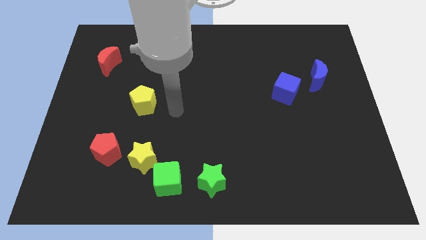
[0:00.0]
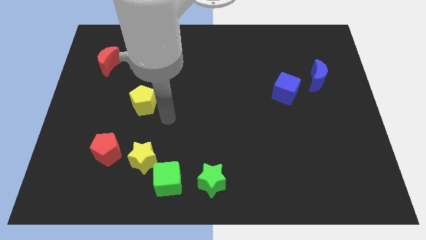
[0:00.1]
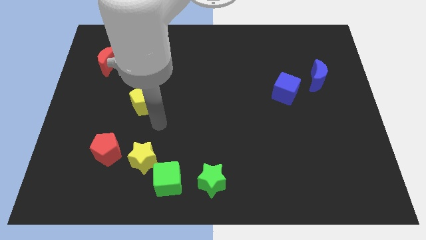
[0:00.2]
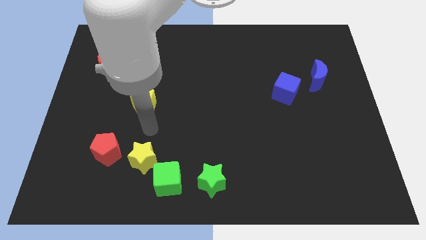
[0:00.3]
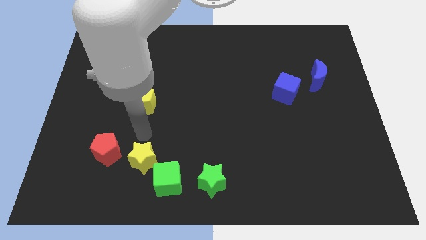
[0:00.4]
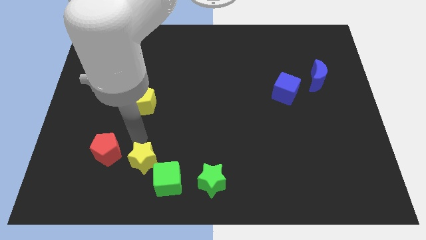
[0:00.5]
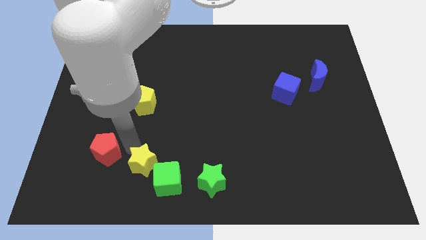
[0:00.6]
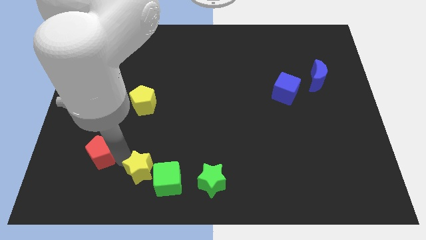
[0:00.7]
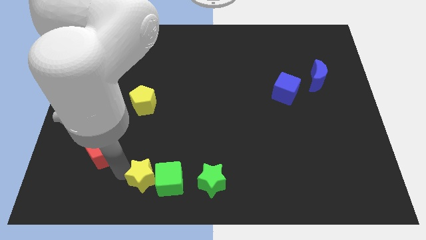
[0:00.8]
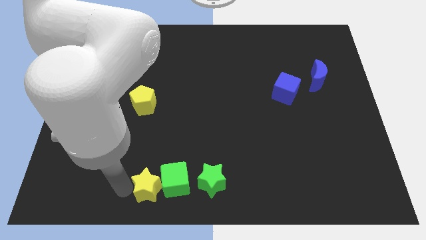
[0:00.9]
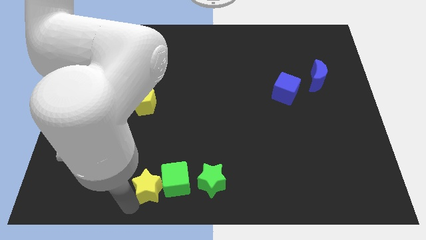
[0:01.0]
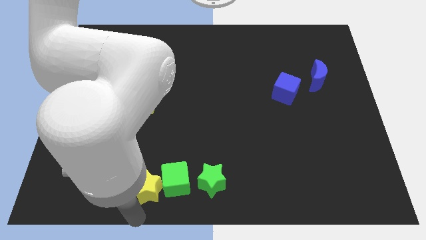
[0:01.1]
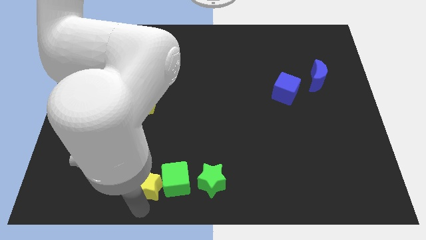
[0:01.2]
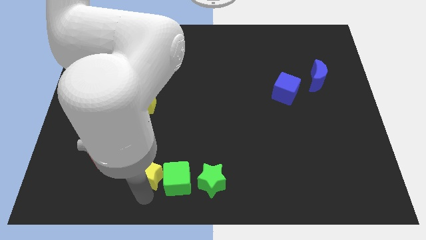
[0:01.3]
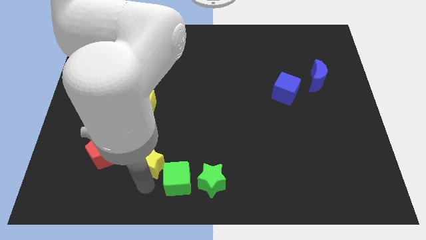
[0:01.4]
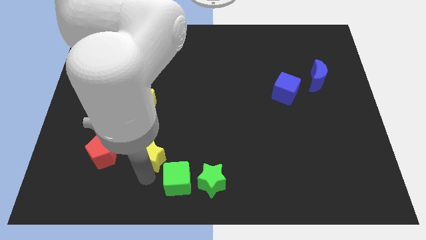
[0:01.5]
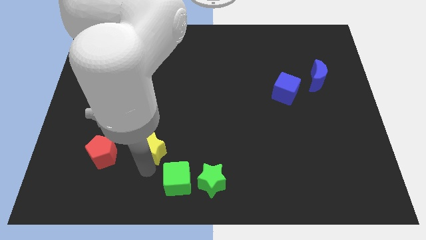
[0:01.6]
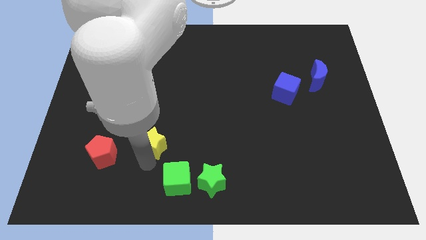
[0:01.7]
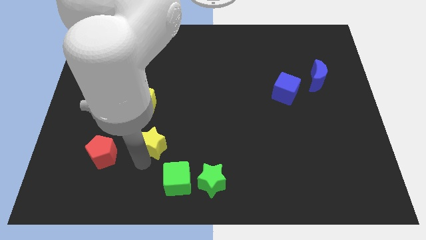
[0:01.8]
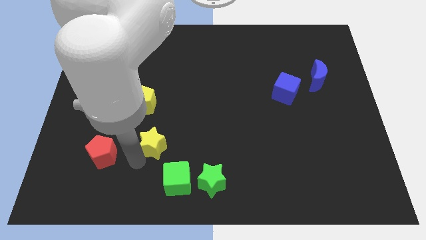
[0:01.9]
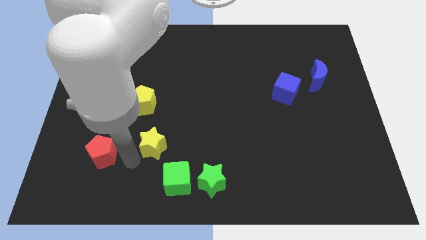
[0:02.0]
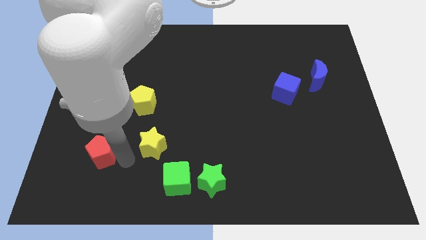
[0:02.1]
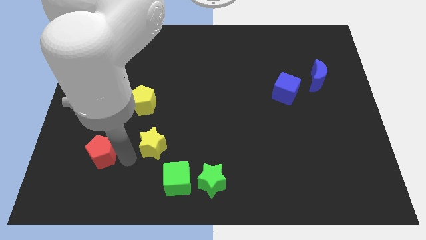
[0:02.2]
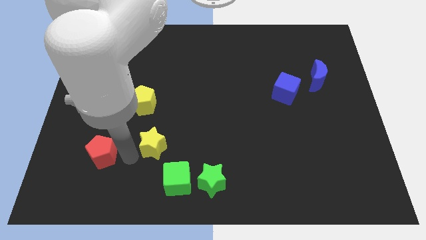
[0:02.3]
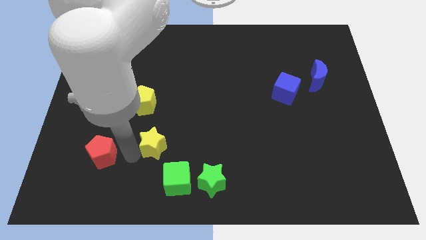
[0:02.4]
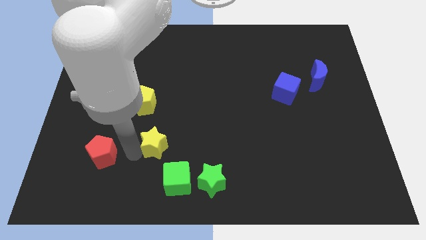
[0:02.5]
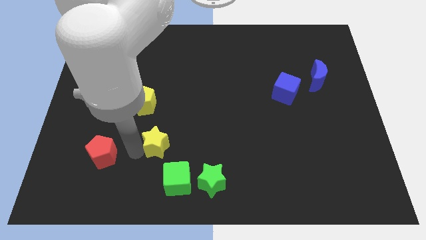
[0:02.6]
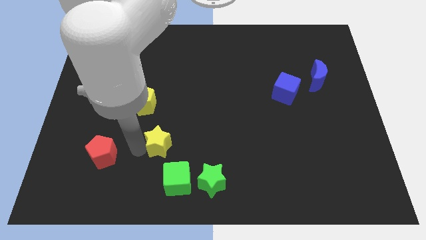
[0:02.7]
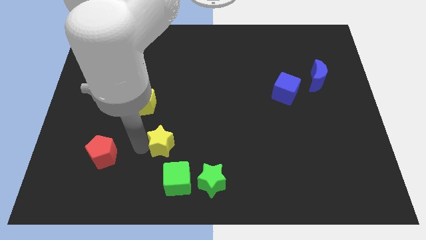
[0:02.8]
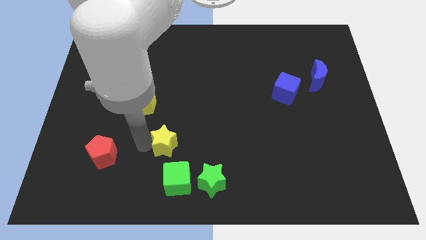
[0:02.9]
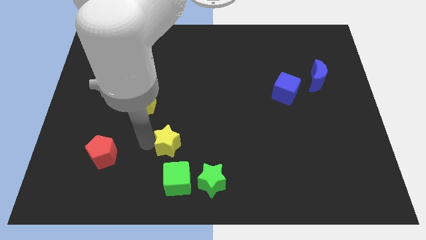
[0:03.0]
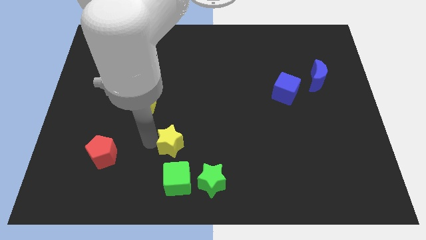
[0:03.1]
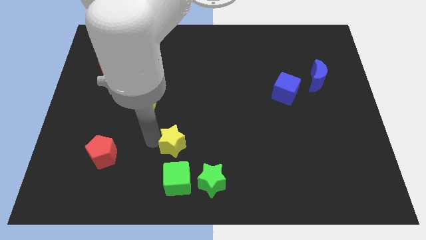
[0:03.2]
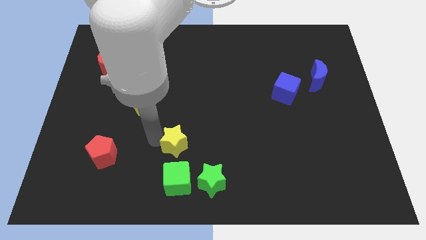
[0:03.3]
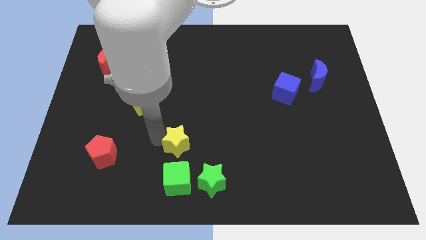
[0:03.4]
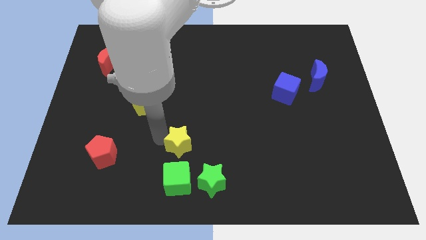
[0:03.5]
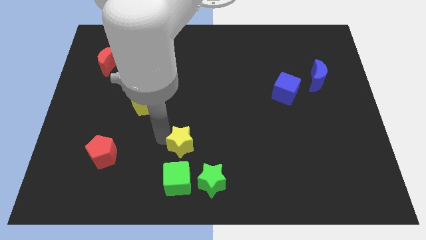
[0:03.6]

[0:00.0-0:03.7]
separate the yellow star from the green cube and red pentagon

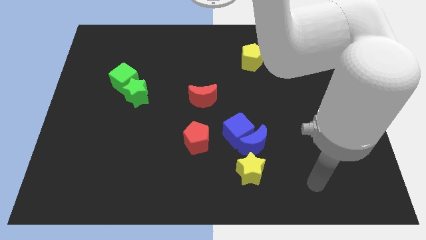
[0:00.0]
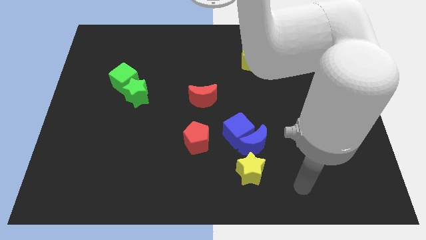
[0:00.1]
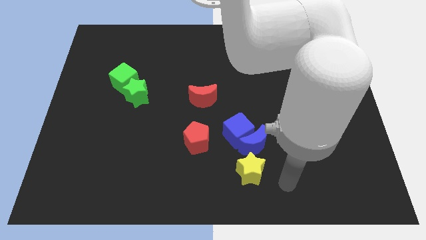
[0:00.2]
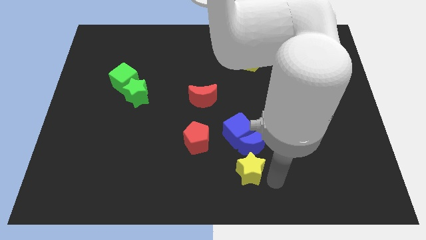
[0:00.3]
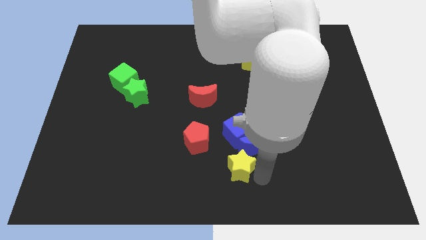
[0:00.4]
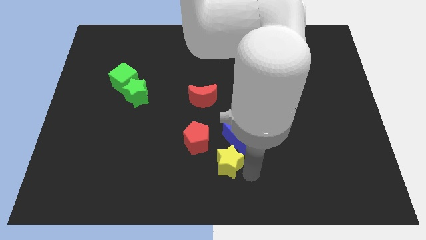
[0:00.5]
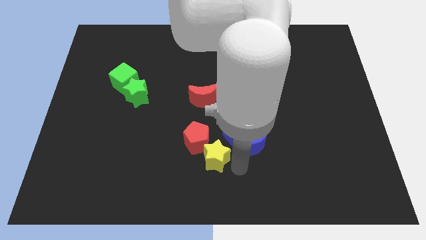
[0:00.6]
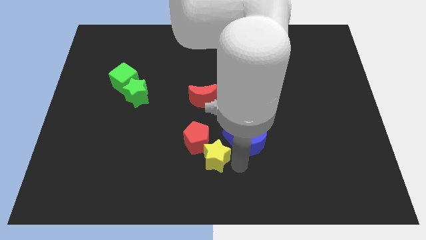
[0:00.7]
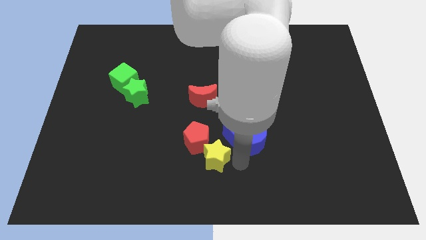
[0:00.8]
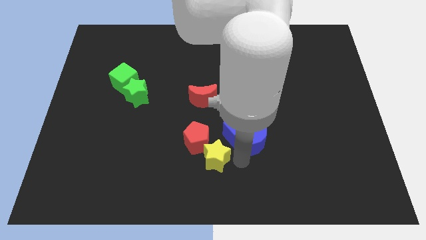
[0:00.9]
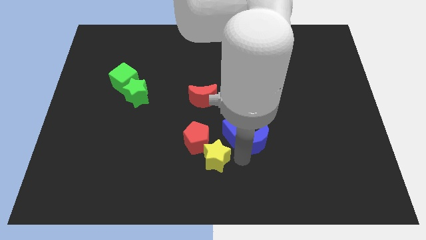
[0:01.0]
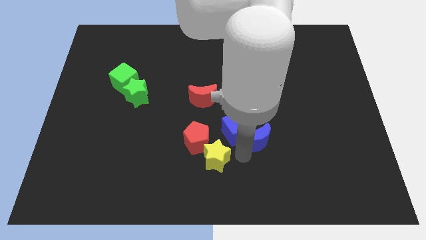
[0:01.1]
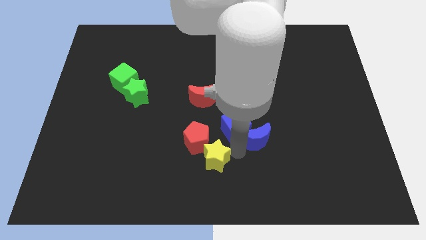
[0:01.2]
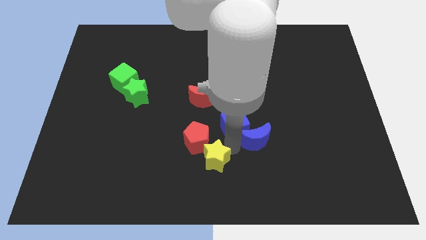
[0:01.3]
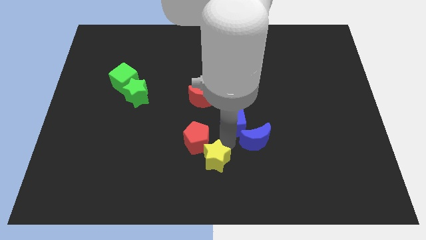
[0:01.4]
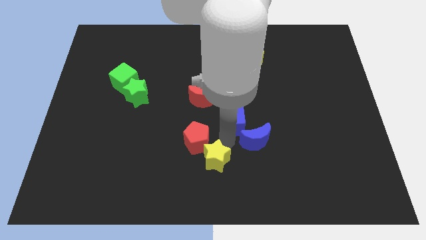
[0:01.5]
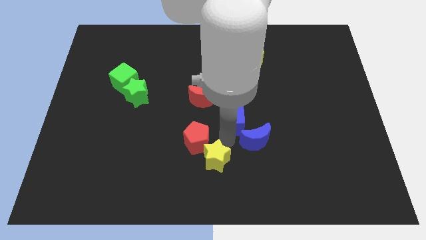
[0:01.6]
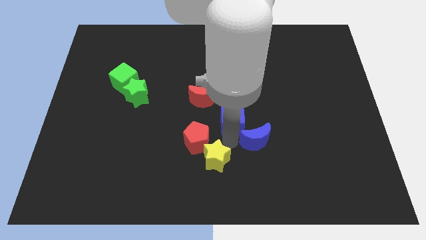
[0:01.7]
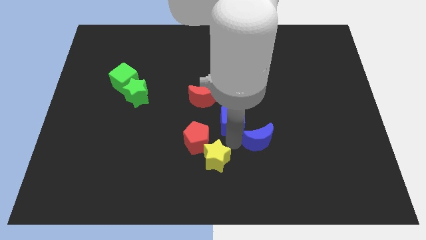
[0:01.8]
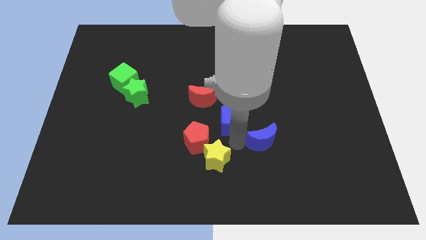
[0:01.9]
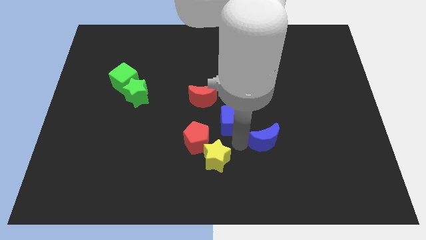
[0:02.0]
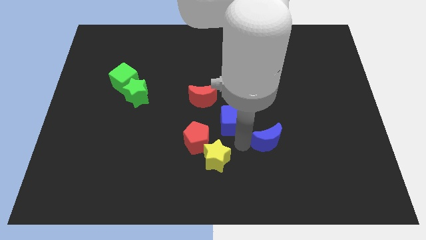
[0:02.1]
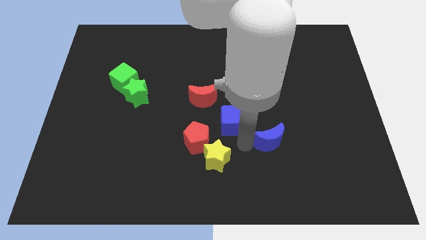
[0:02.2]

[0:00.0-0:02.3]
pull the blue moon apart from the blue cube and yellow star

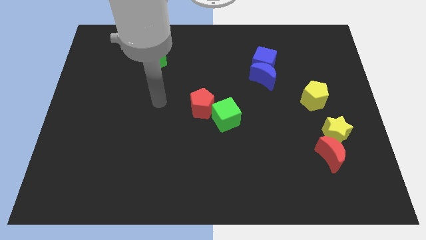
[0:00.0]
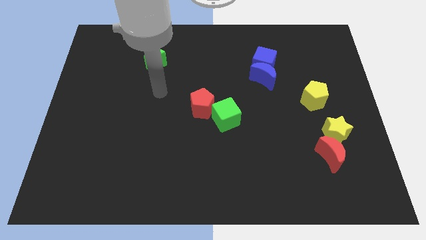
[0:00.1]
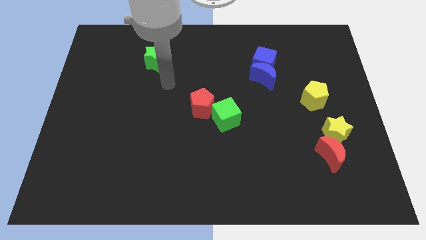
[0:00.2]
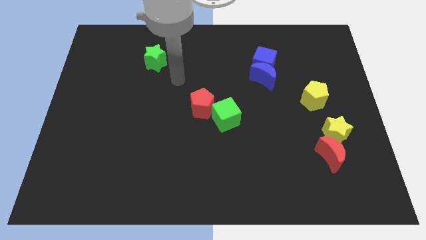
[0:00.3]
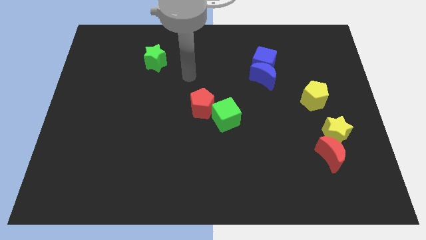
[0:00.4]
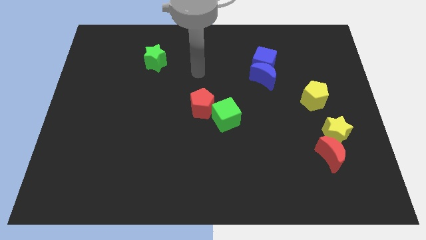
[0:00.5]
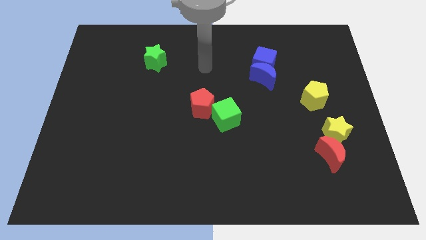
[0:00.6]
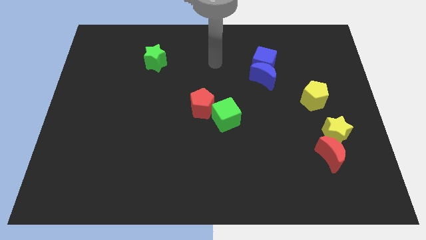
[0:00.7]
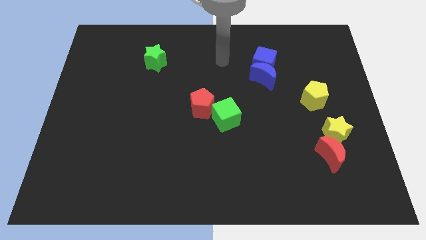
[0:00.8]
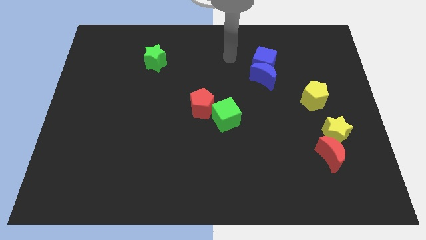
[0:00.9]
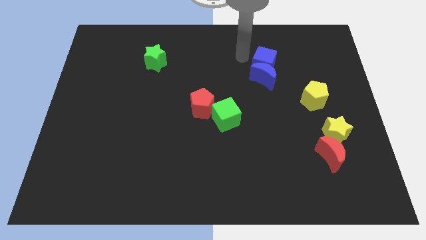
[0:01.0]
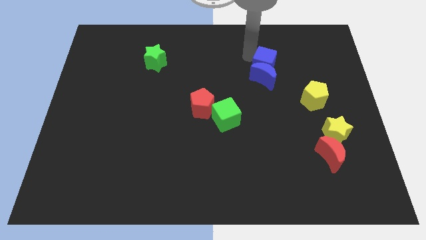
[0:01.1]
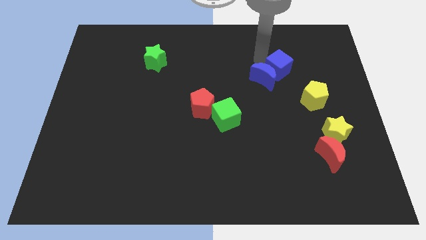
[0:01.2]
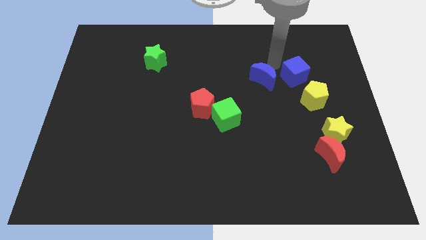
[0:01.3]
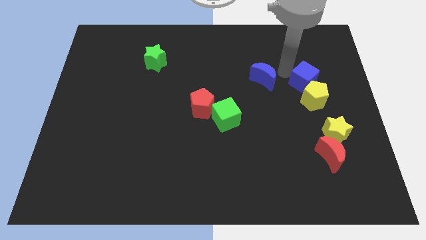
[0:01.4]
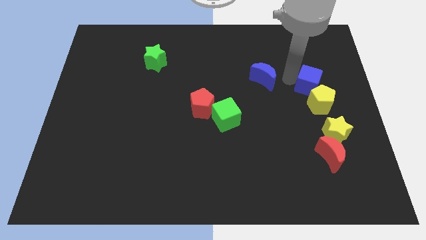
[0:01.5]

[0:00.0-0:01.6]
separate the blue moon from the blue cube

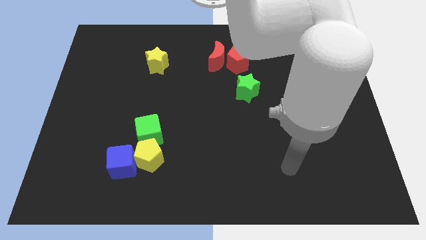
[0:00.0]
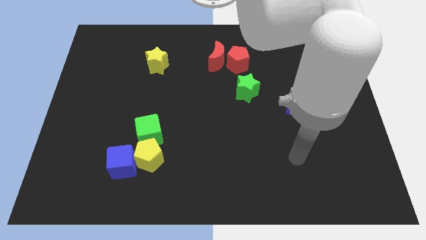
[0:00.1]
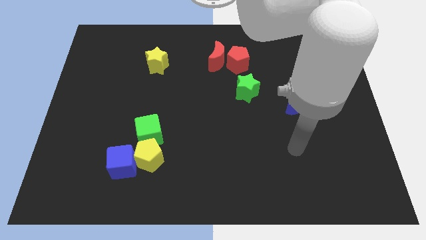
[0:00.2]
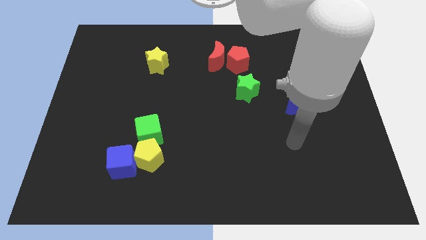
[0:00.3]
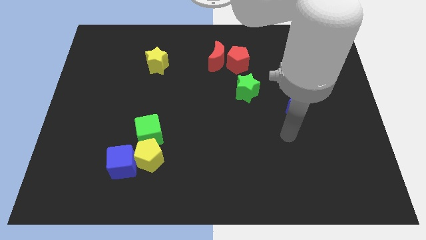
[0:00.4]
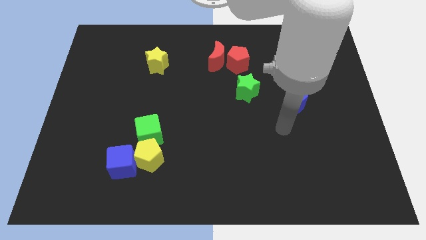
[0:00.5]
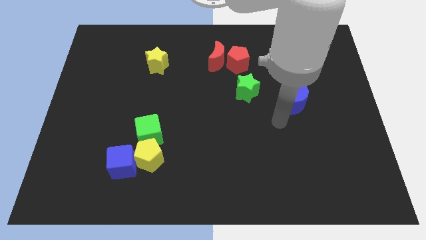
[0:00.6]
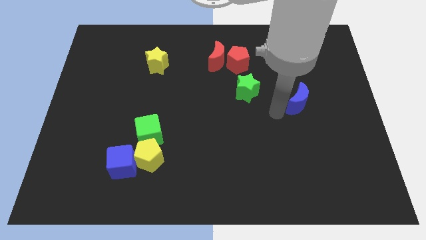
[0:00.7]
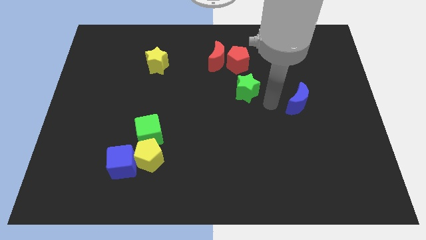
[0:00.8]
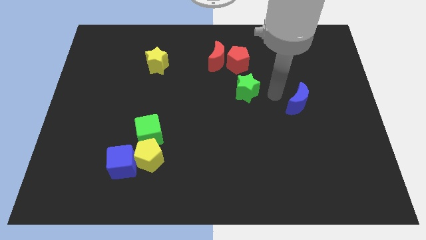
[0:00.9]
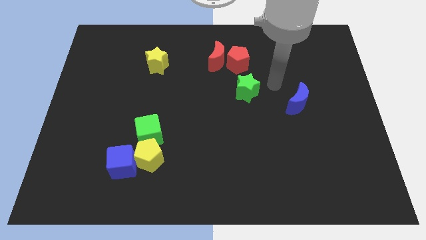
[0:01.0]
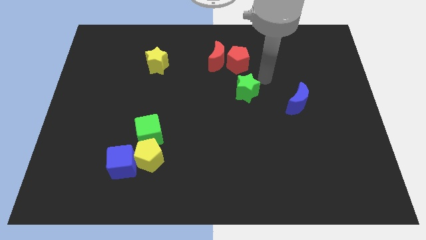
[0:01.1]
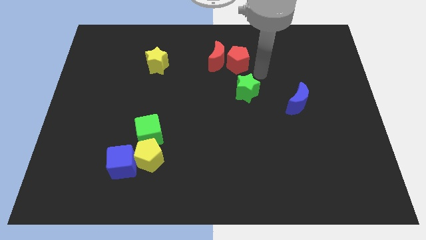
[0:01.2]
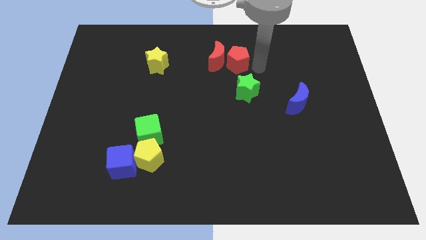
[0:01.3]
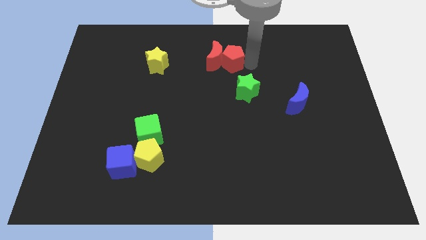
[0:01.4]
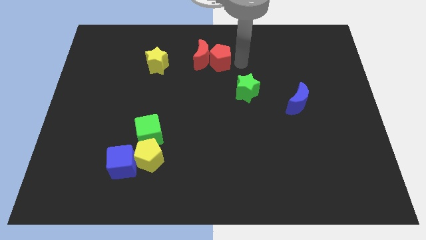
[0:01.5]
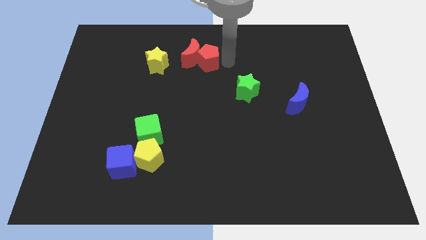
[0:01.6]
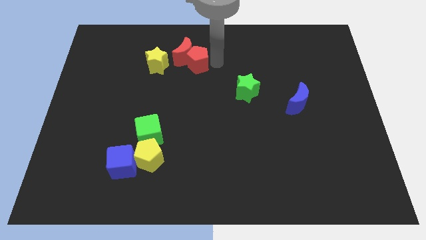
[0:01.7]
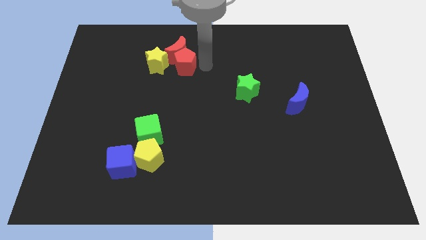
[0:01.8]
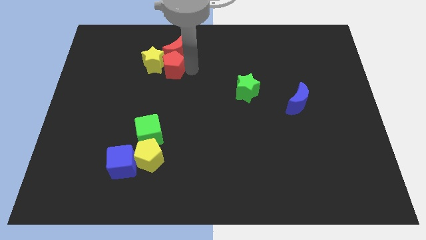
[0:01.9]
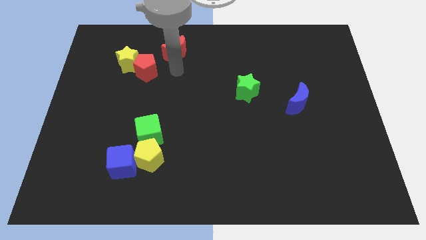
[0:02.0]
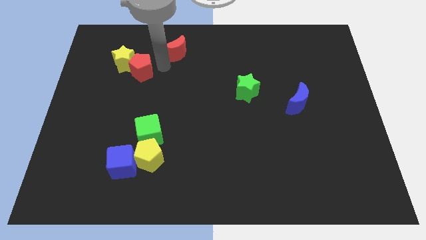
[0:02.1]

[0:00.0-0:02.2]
pull the red moon apart from the red pentagon
